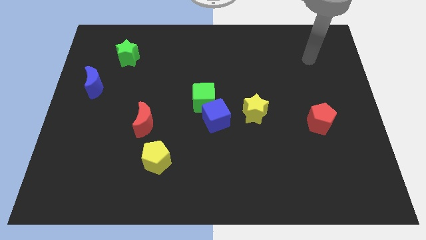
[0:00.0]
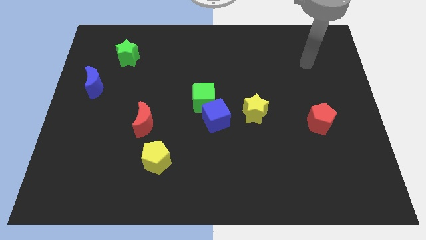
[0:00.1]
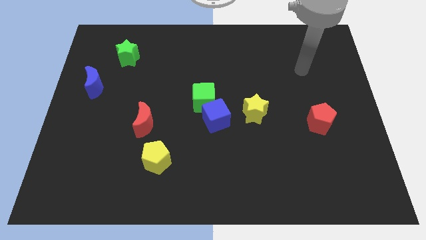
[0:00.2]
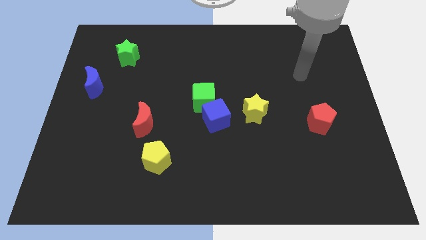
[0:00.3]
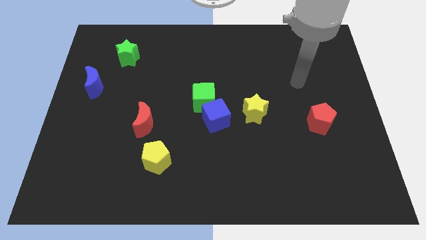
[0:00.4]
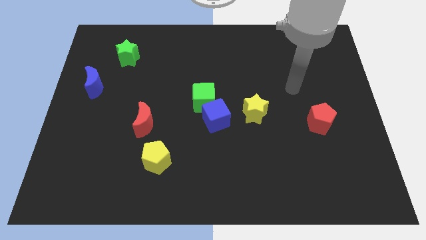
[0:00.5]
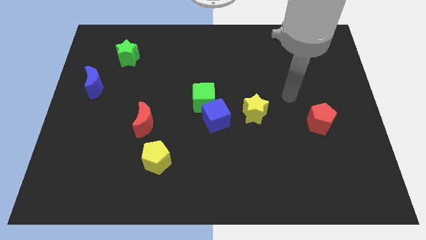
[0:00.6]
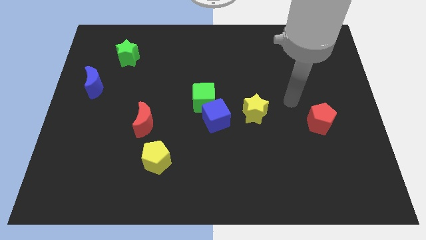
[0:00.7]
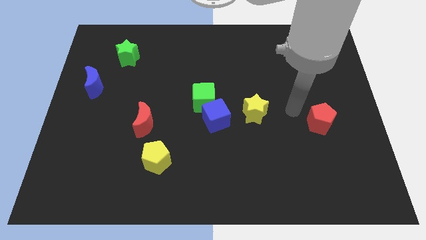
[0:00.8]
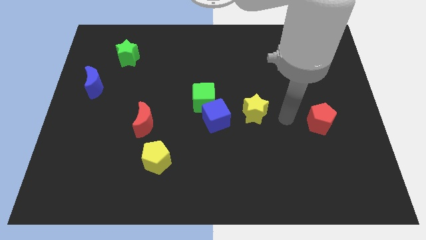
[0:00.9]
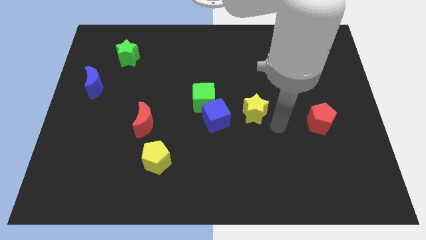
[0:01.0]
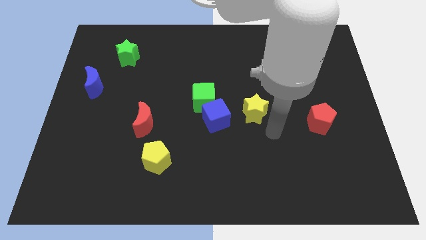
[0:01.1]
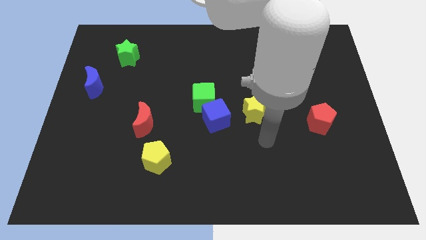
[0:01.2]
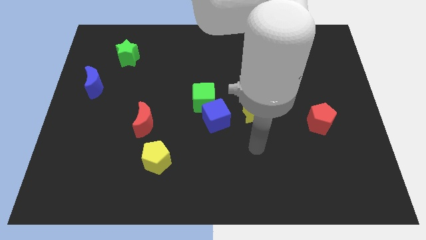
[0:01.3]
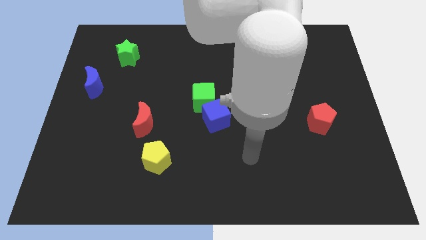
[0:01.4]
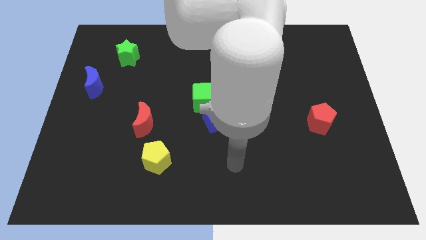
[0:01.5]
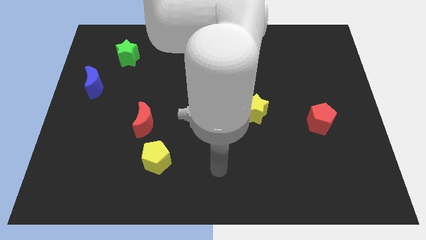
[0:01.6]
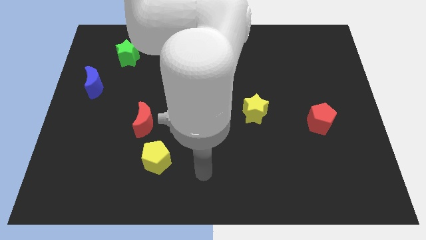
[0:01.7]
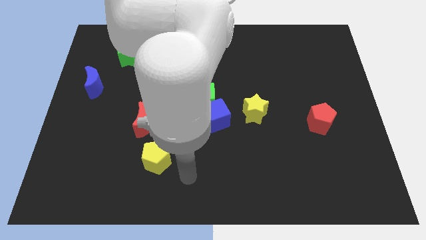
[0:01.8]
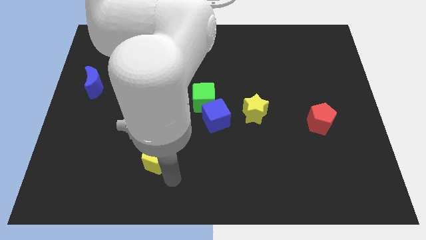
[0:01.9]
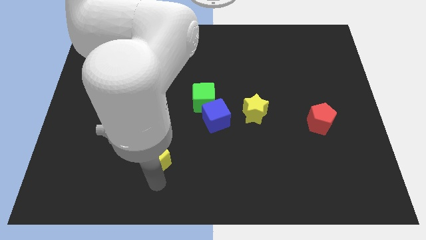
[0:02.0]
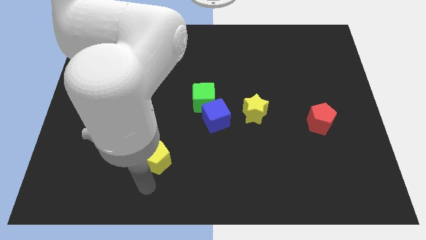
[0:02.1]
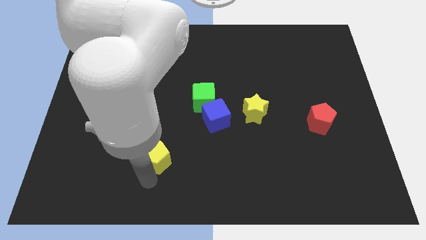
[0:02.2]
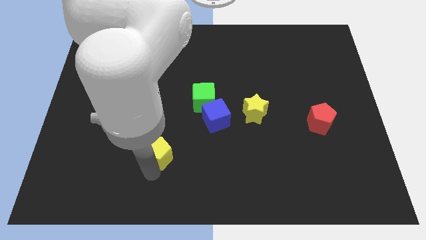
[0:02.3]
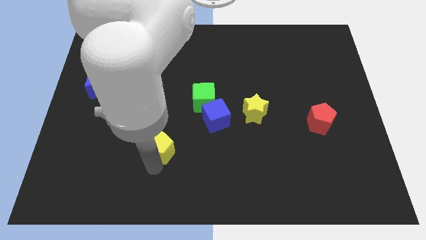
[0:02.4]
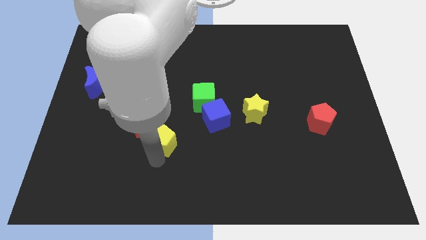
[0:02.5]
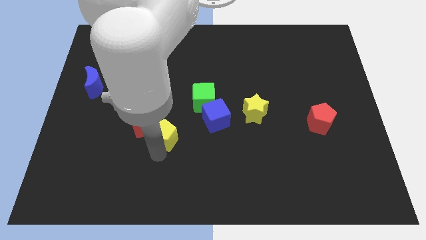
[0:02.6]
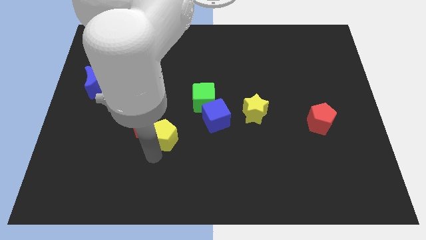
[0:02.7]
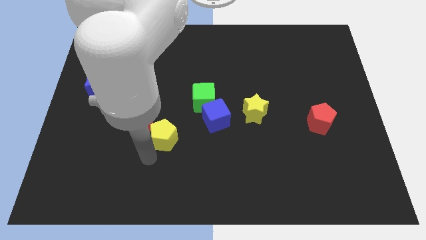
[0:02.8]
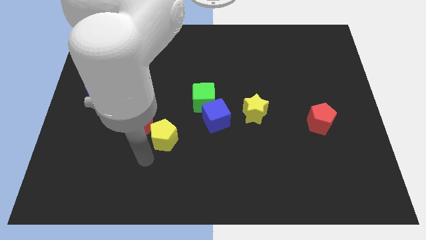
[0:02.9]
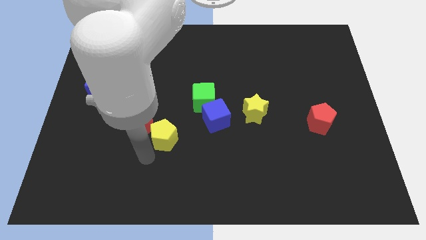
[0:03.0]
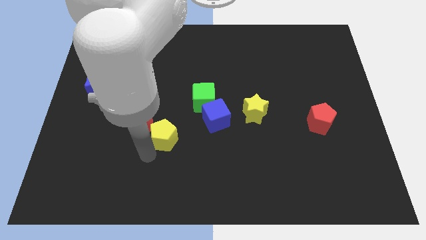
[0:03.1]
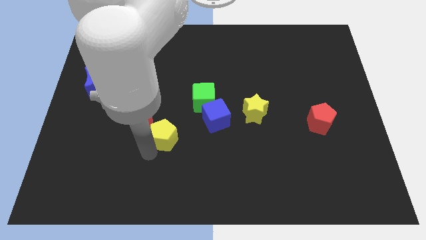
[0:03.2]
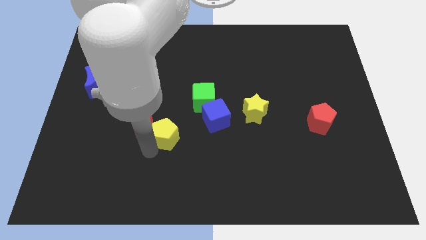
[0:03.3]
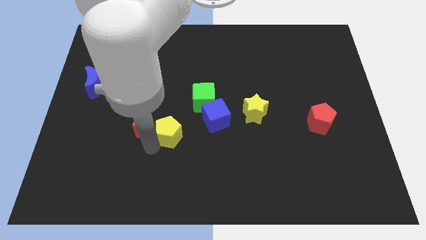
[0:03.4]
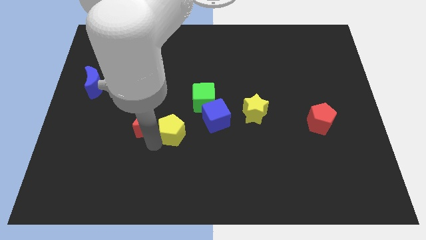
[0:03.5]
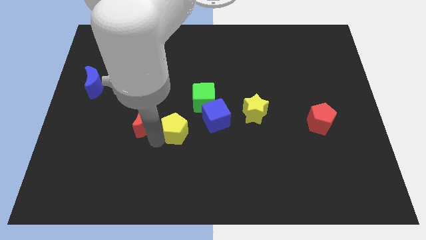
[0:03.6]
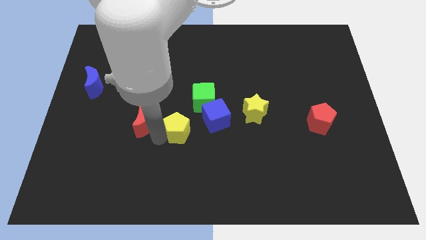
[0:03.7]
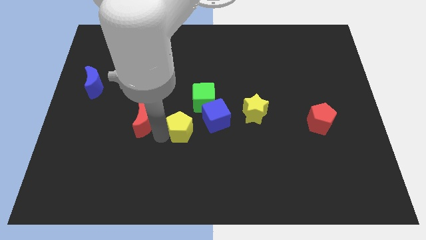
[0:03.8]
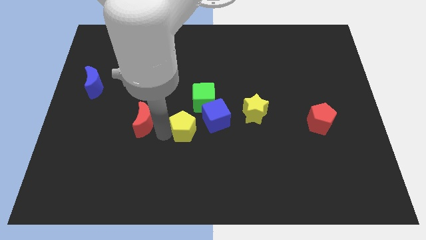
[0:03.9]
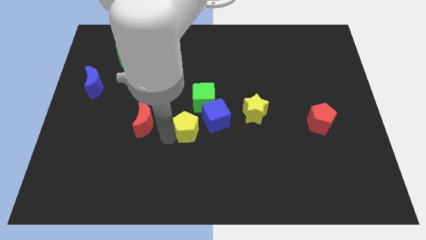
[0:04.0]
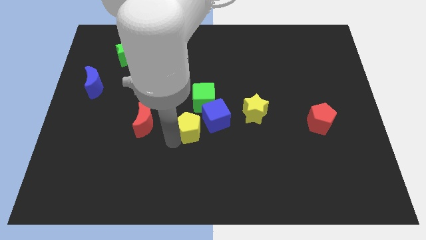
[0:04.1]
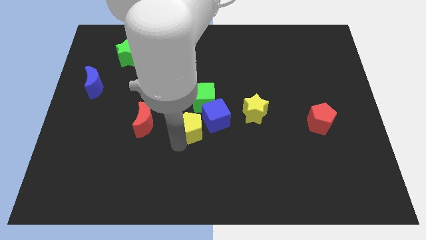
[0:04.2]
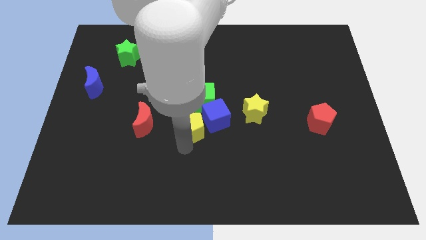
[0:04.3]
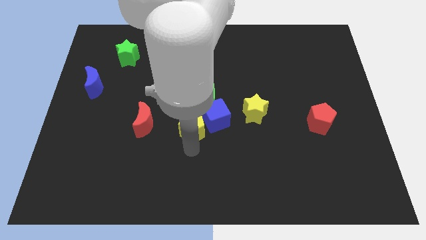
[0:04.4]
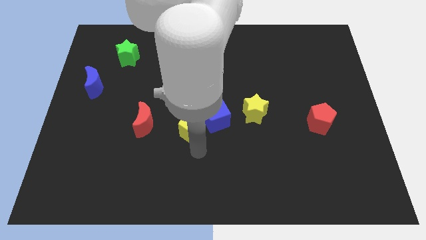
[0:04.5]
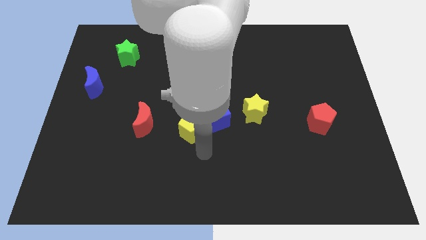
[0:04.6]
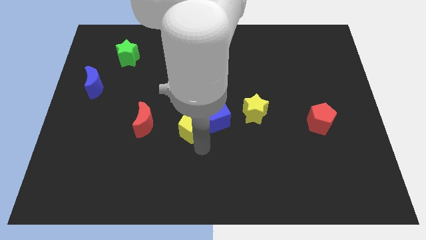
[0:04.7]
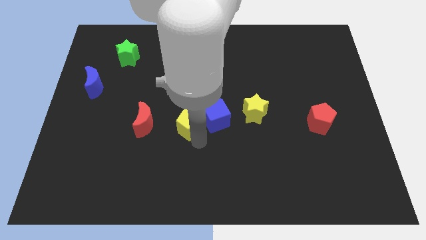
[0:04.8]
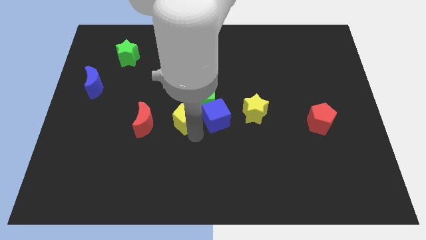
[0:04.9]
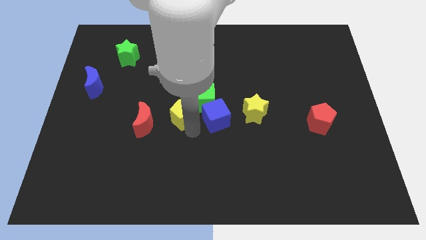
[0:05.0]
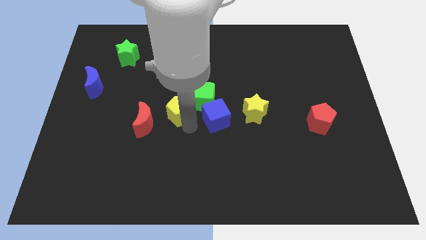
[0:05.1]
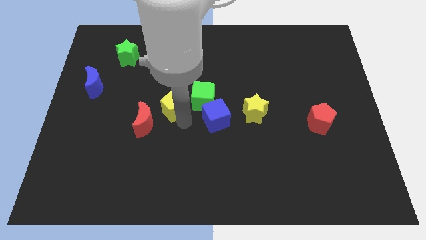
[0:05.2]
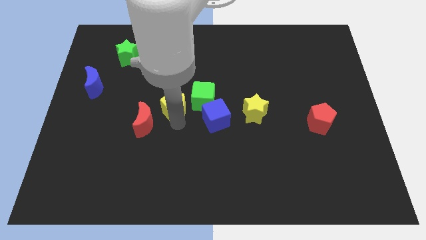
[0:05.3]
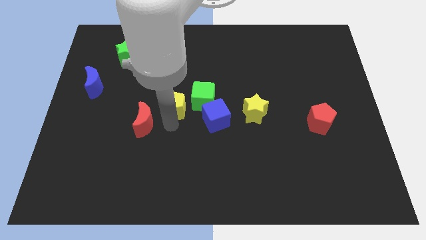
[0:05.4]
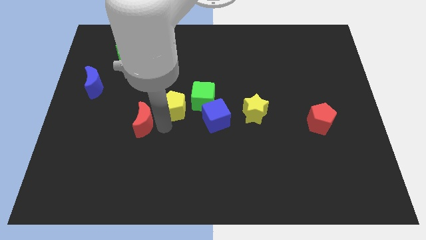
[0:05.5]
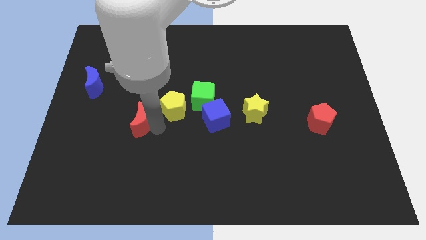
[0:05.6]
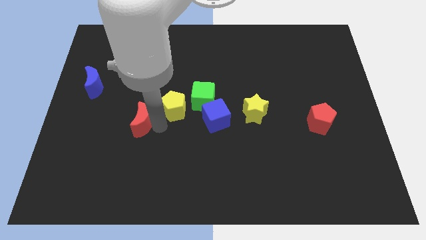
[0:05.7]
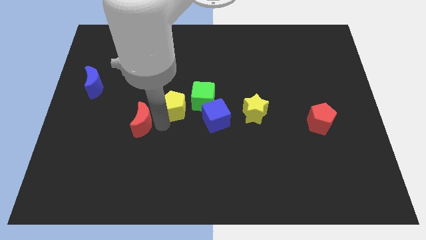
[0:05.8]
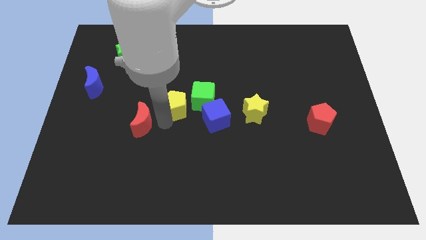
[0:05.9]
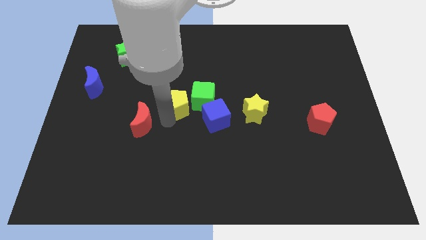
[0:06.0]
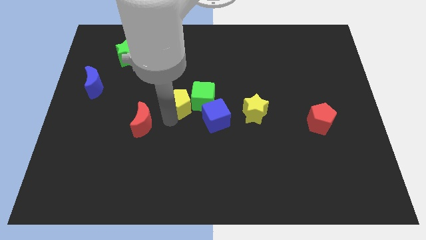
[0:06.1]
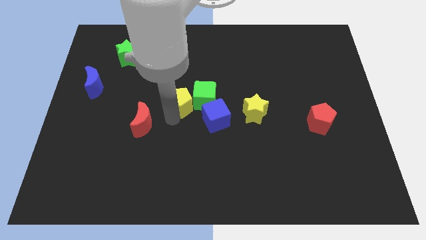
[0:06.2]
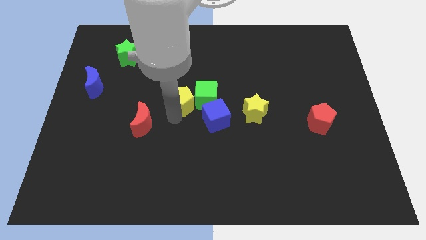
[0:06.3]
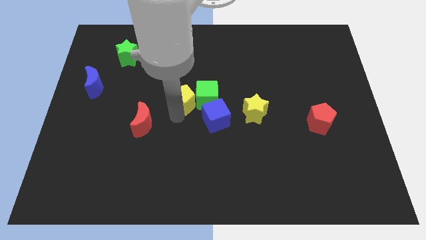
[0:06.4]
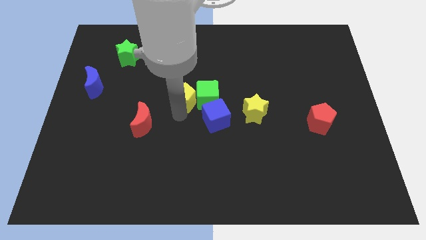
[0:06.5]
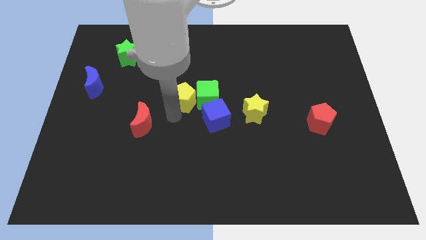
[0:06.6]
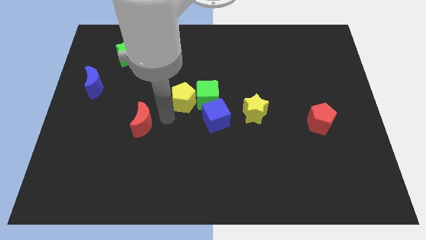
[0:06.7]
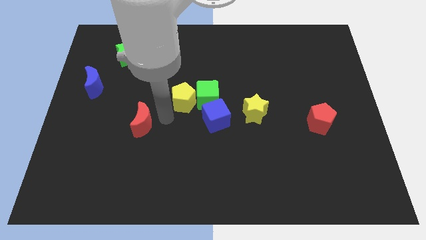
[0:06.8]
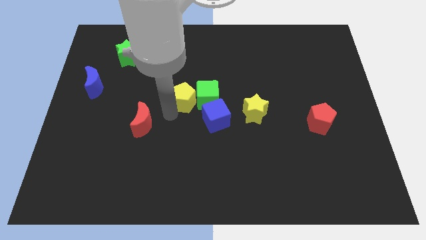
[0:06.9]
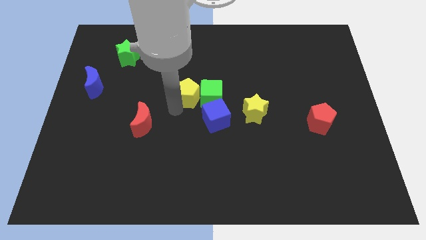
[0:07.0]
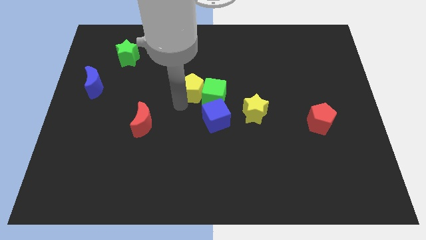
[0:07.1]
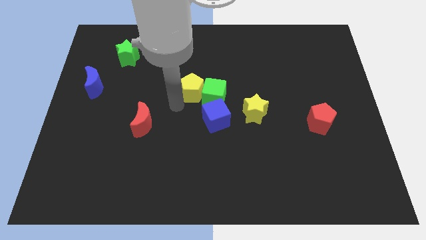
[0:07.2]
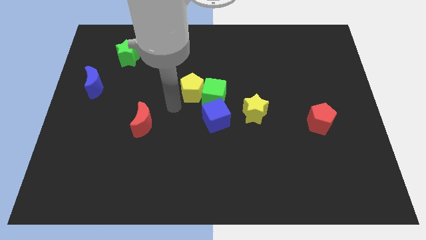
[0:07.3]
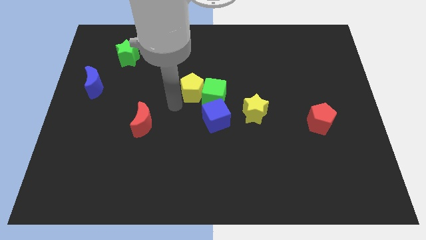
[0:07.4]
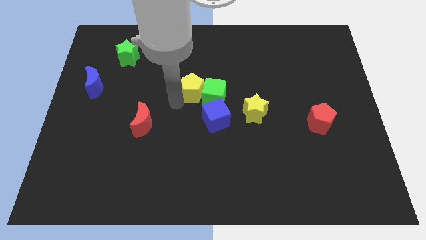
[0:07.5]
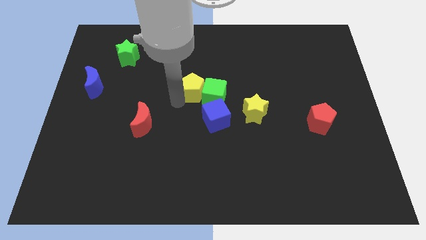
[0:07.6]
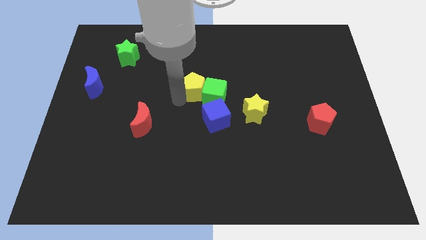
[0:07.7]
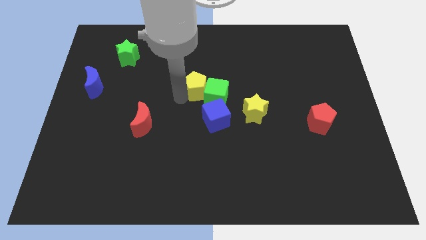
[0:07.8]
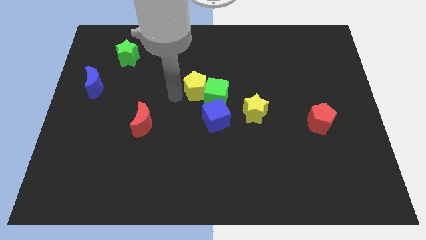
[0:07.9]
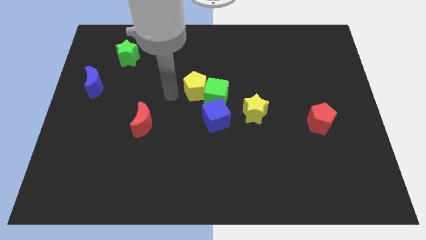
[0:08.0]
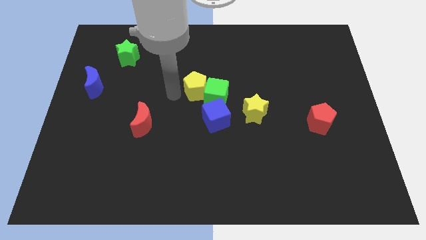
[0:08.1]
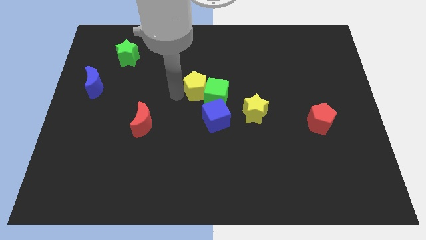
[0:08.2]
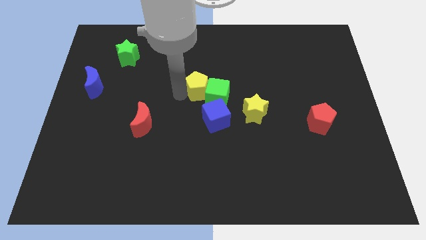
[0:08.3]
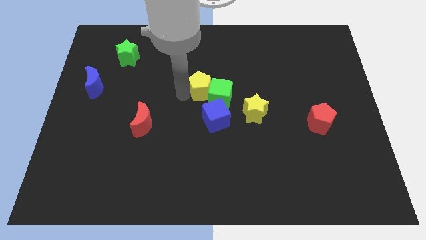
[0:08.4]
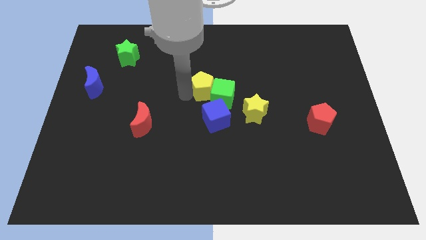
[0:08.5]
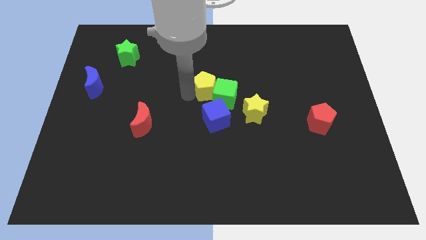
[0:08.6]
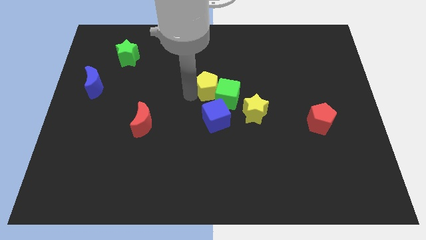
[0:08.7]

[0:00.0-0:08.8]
move the yellow pentagon diagonally upwards and right
